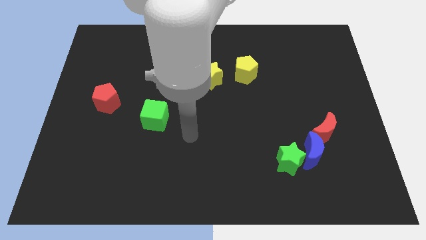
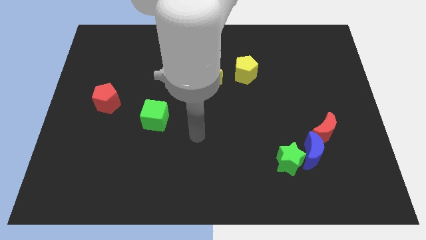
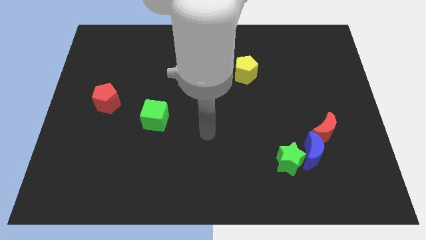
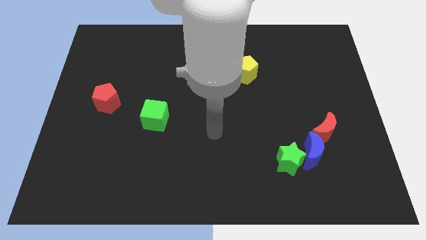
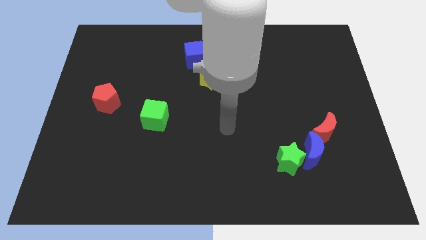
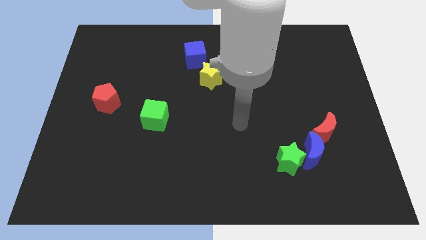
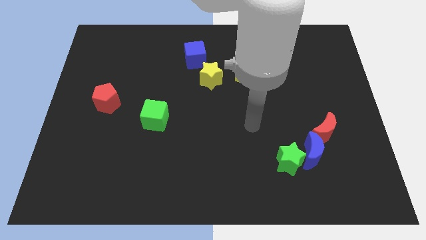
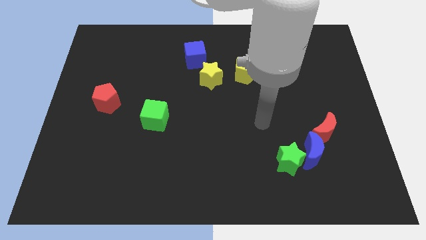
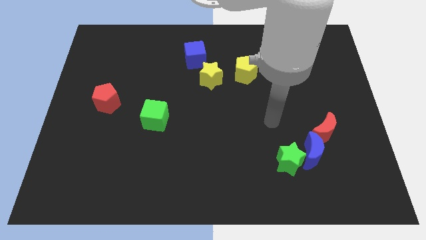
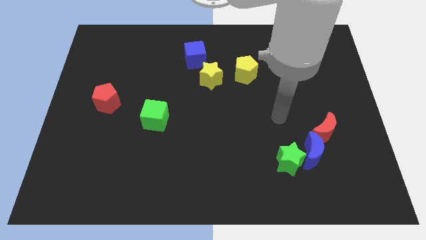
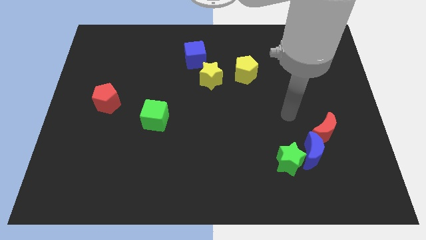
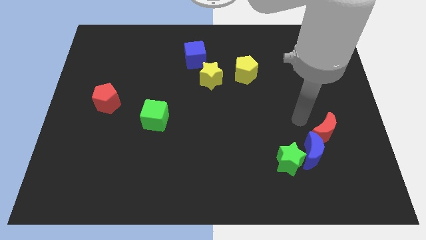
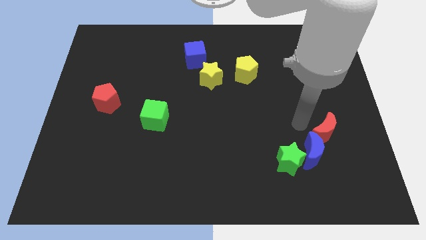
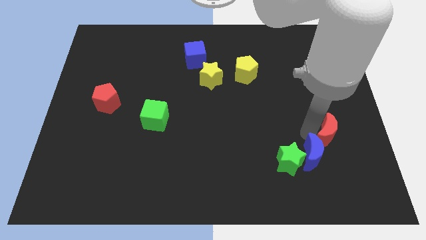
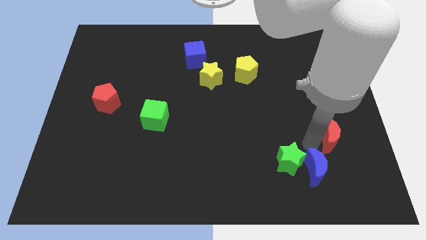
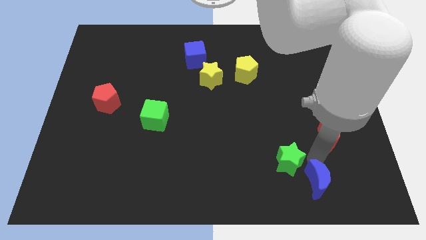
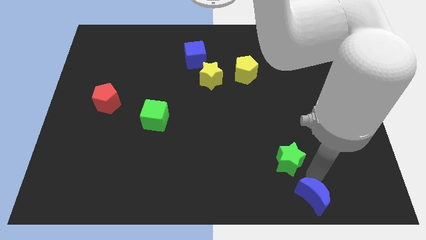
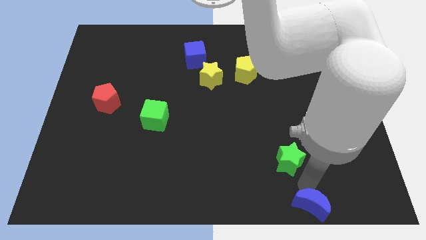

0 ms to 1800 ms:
move the green star away from the blue moon

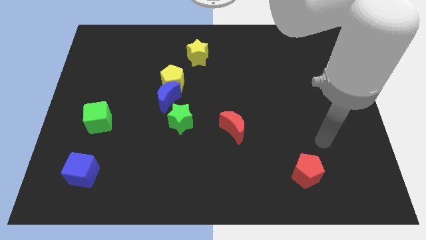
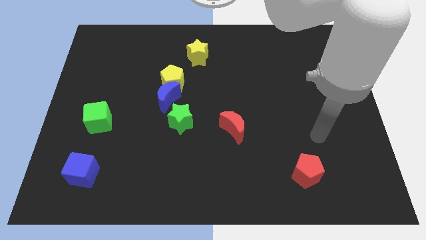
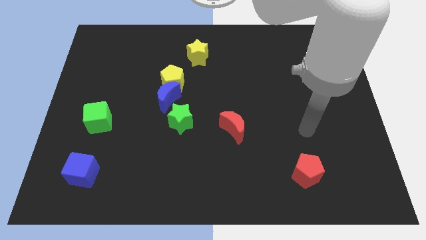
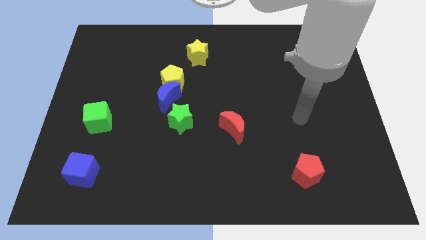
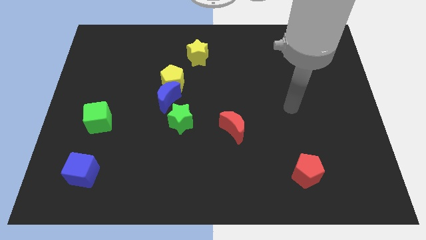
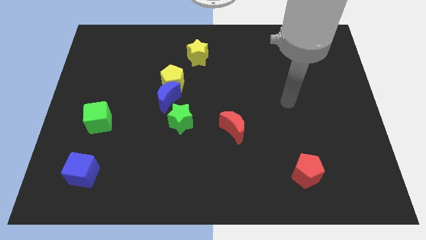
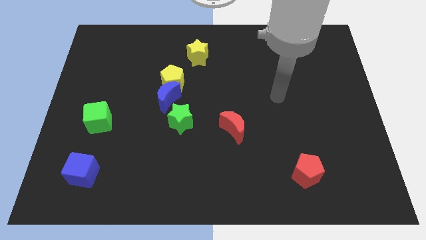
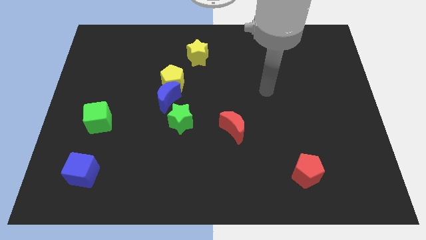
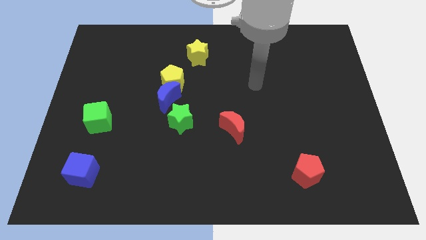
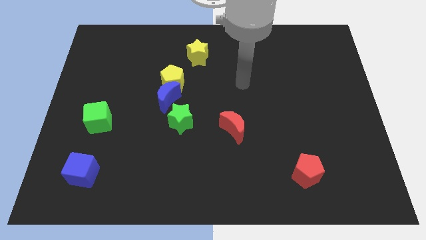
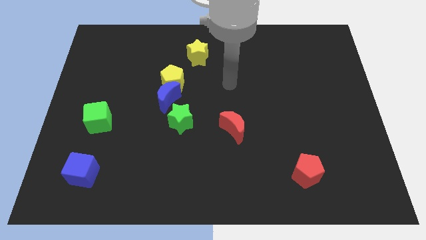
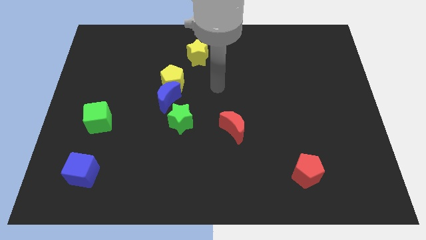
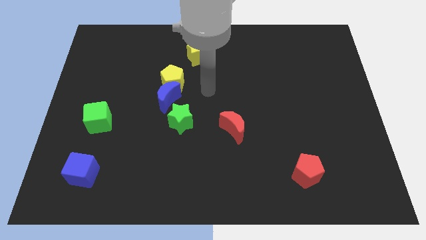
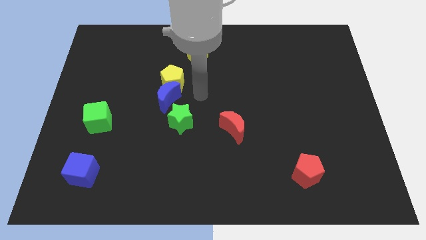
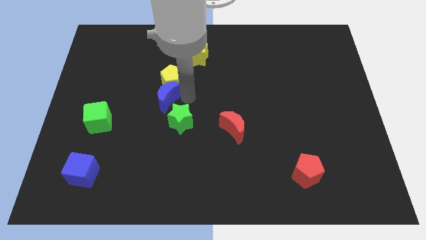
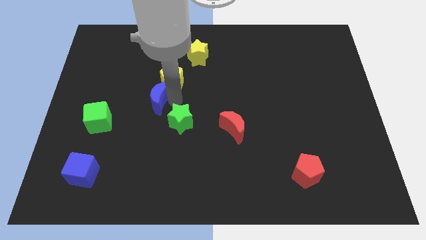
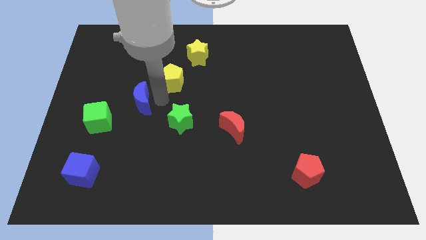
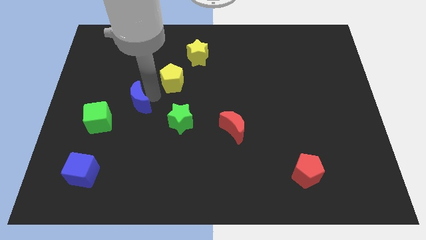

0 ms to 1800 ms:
separate the yellow pentagon from the blue moon

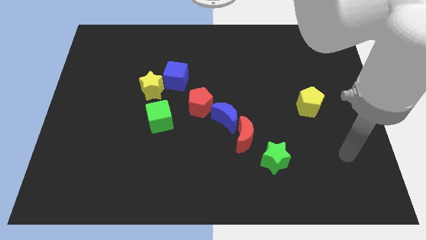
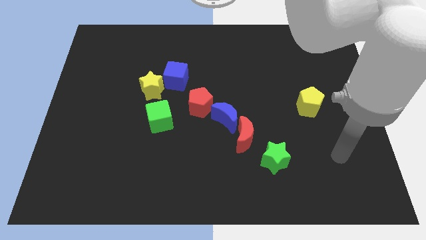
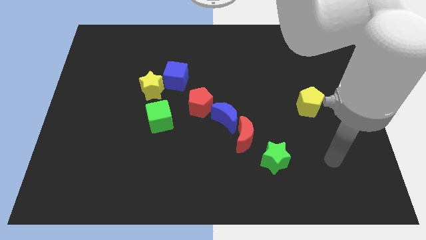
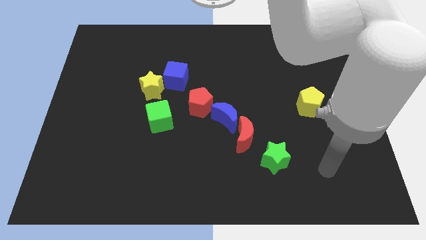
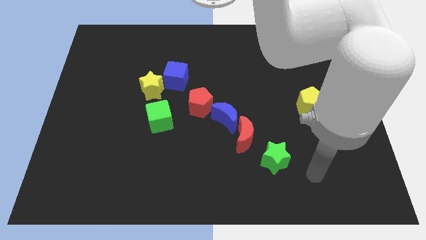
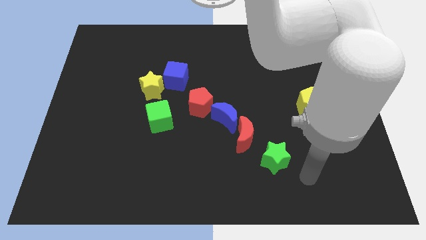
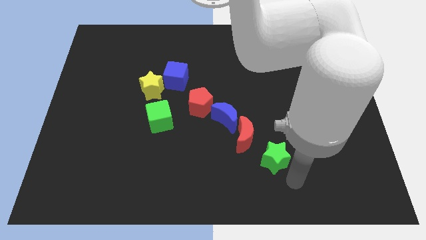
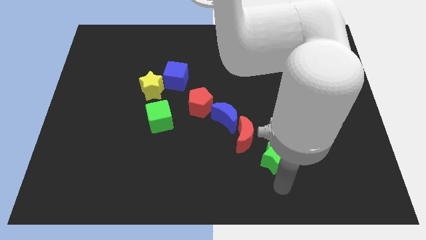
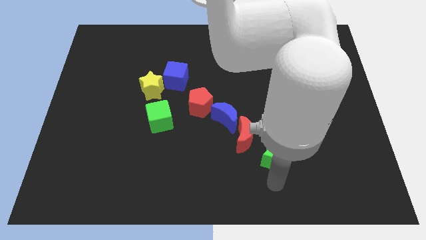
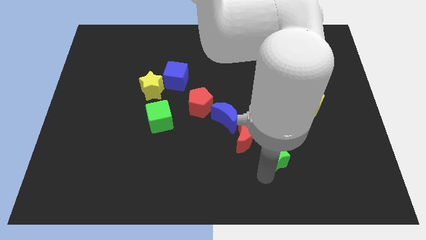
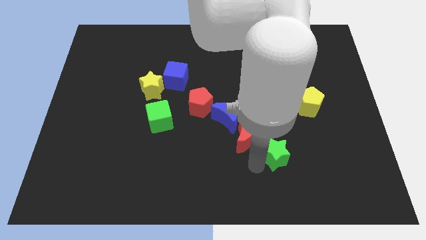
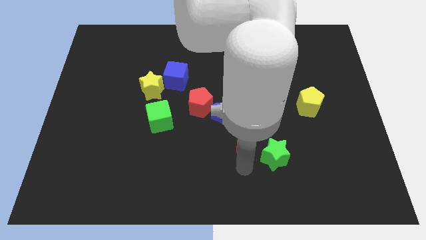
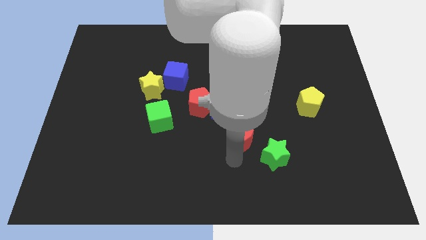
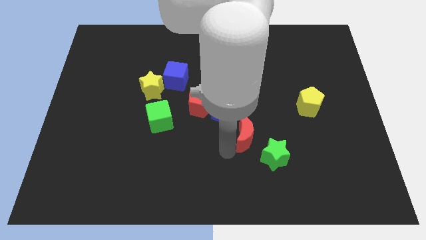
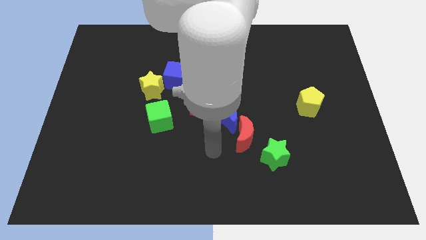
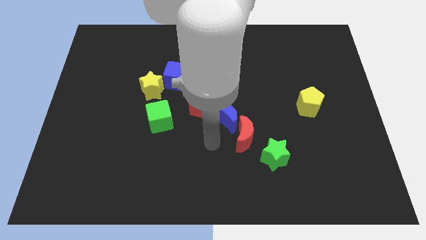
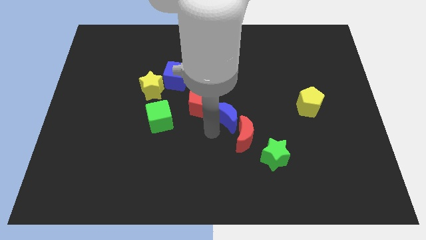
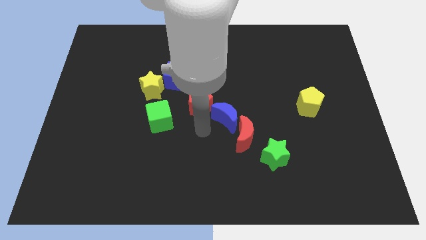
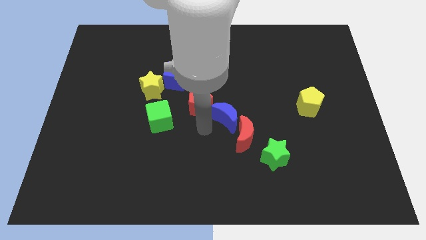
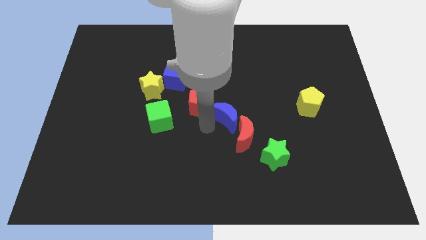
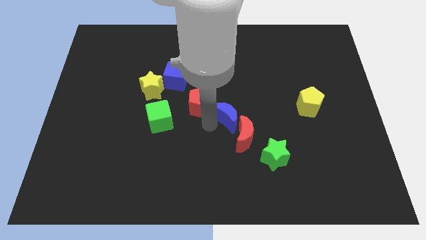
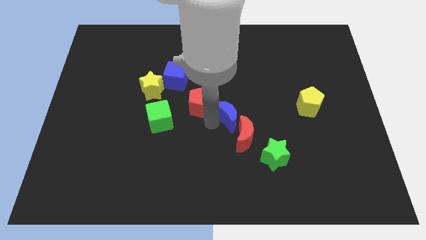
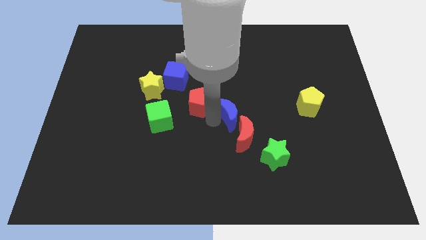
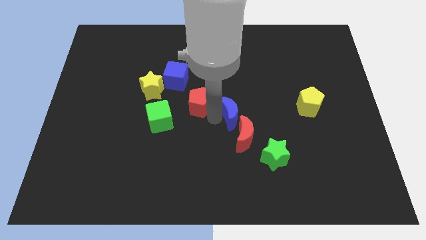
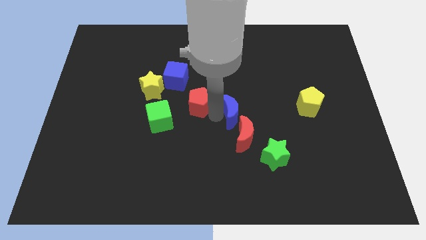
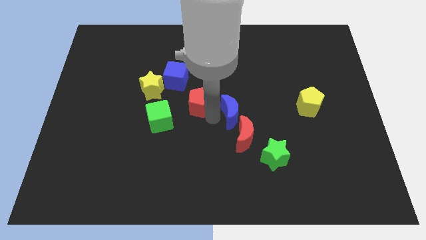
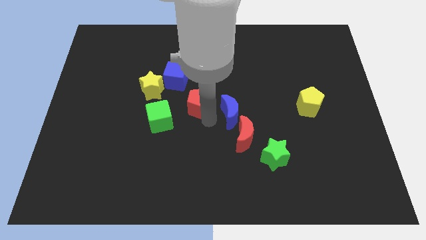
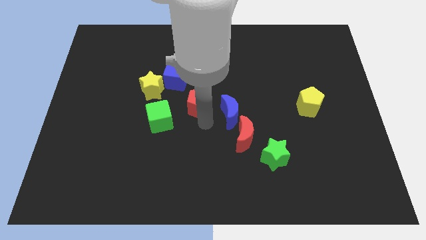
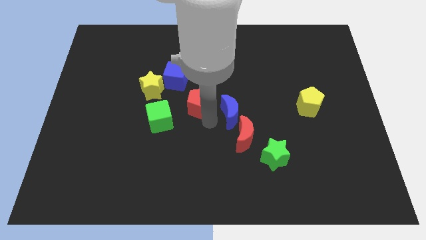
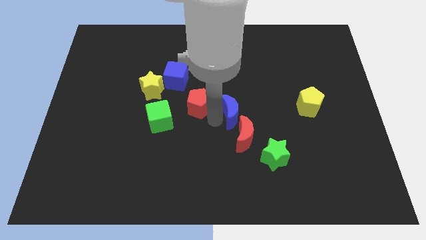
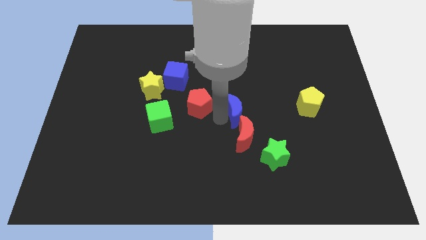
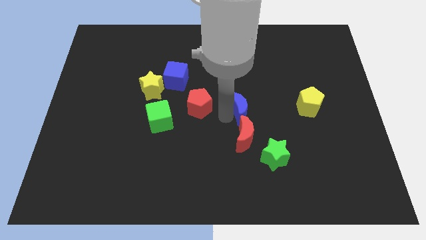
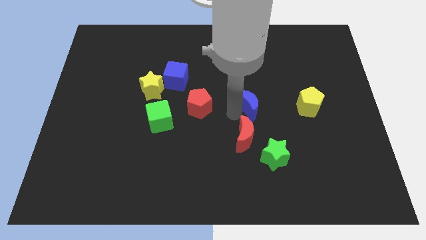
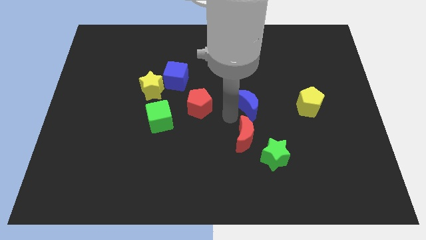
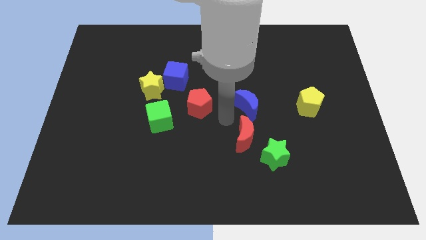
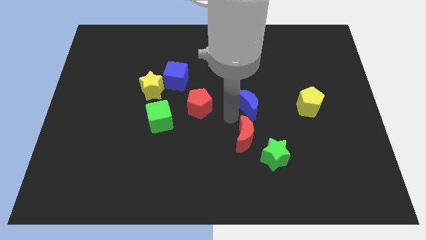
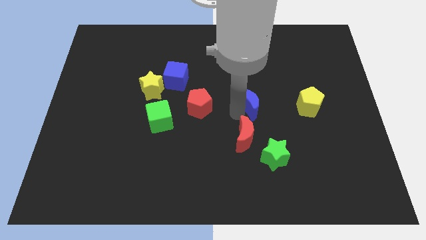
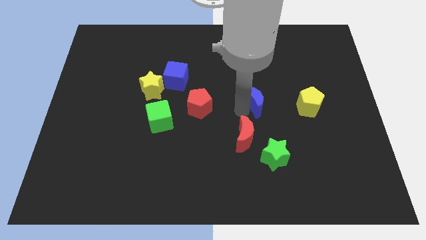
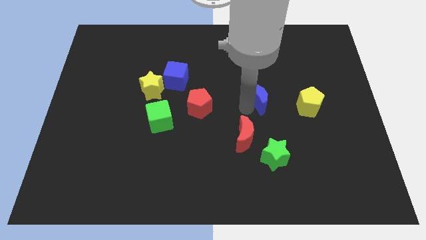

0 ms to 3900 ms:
move the blue moon away from the red moon and red pentagon

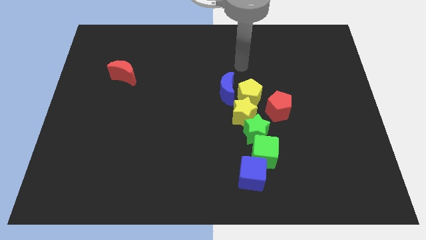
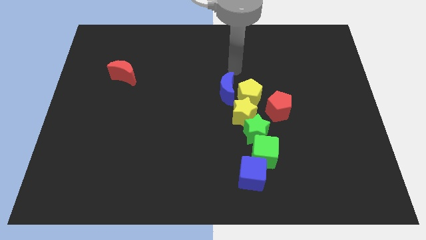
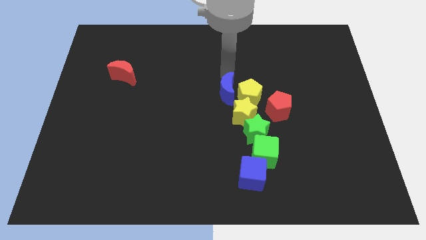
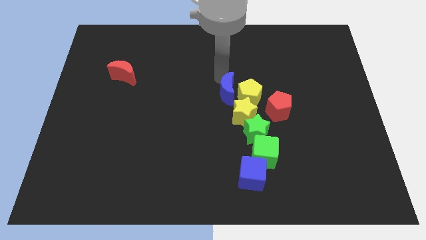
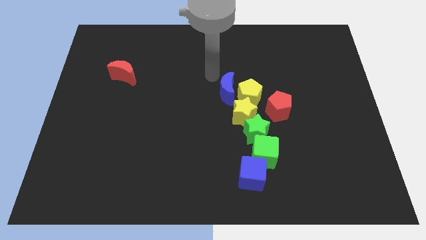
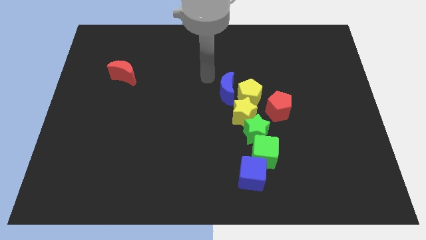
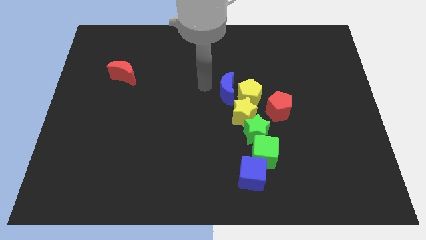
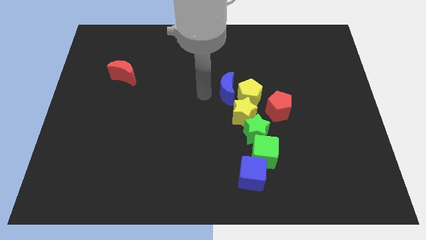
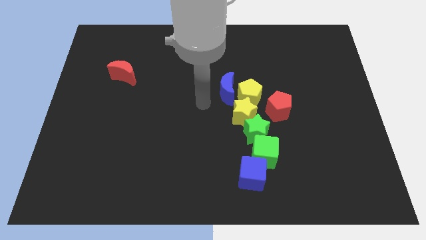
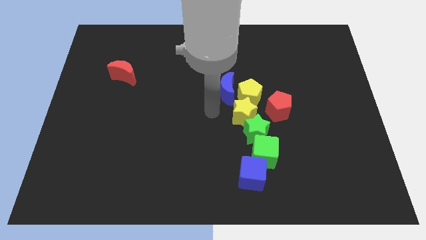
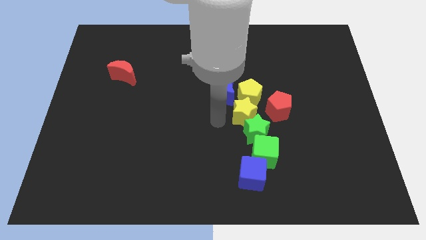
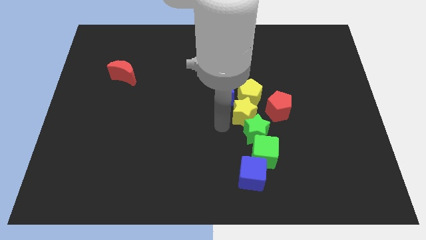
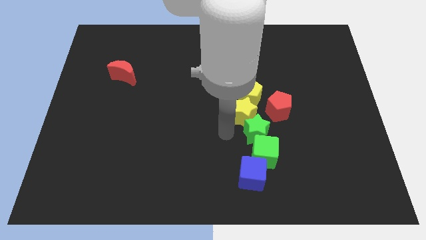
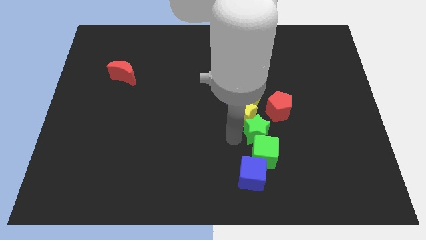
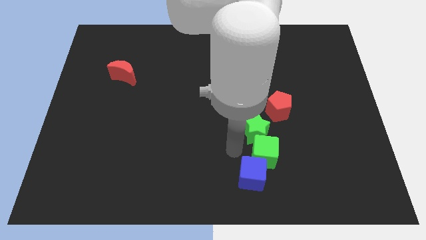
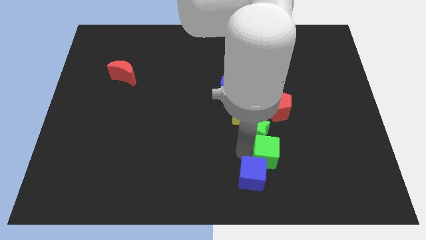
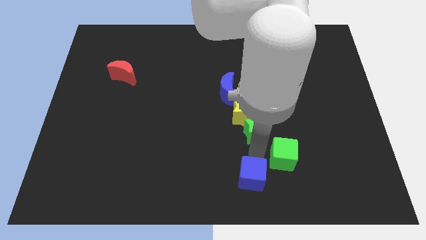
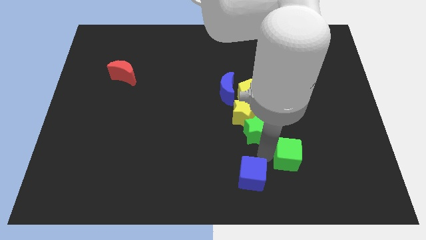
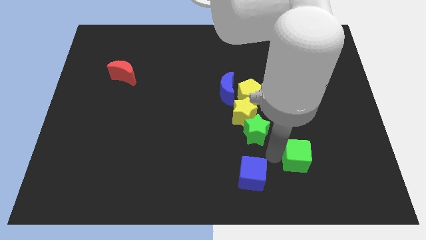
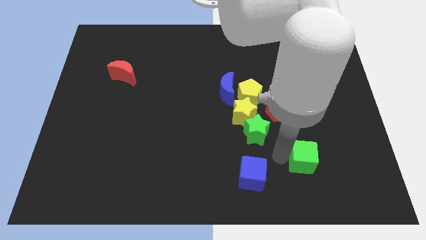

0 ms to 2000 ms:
pull the green cube apart from the green star and blue cube
